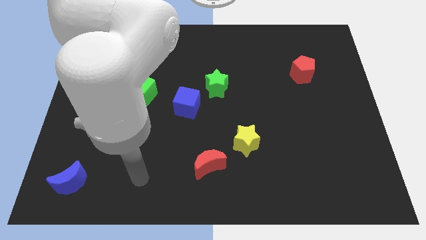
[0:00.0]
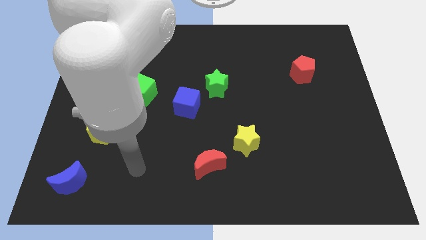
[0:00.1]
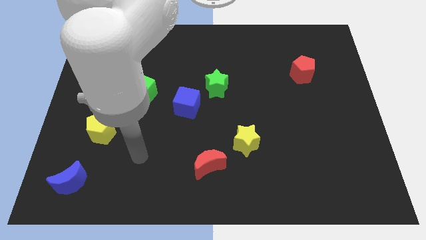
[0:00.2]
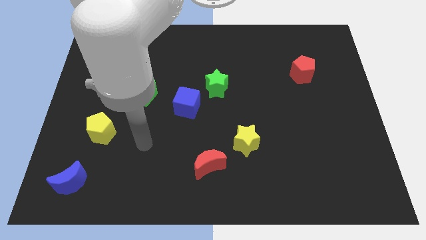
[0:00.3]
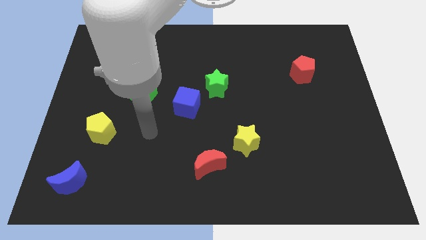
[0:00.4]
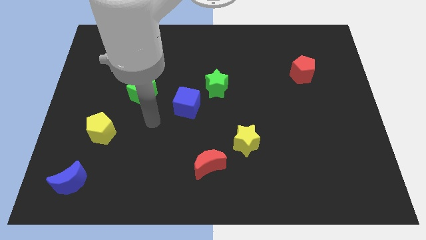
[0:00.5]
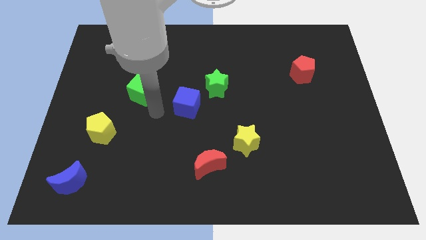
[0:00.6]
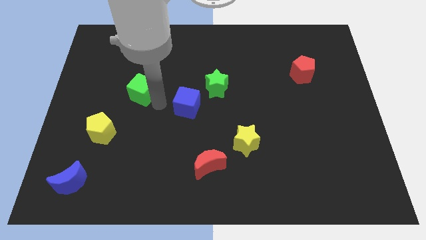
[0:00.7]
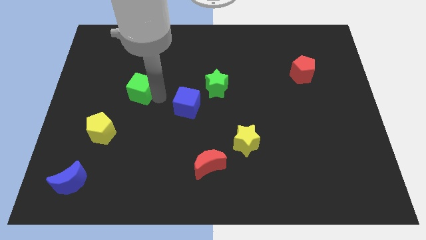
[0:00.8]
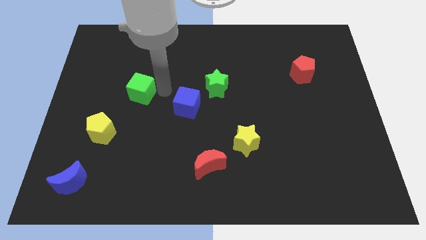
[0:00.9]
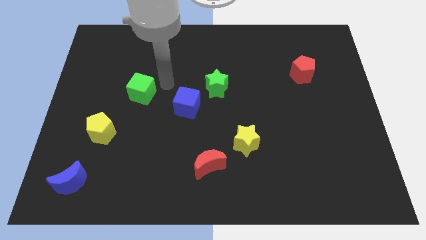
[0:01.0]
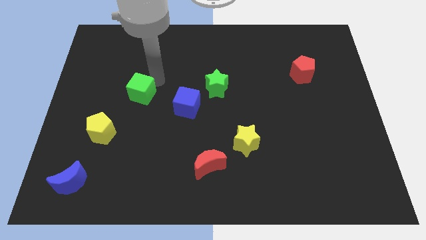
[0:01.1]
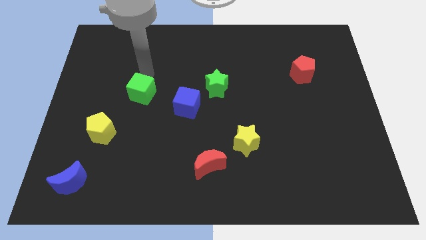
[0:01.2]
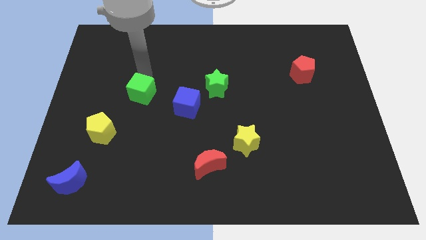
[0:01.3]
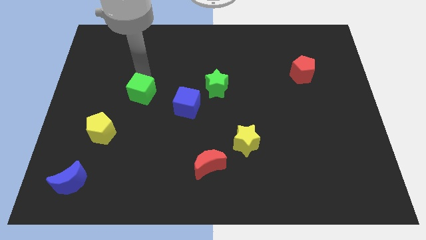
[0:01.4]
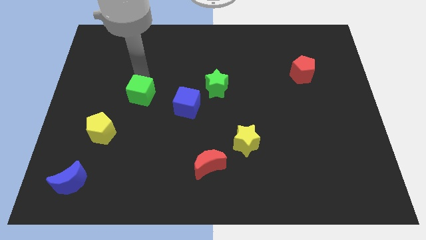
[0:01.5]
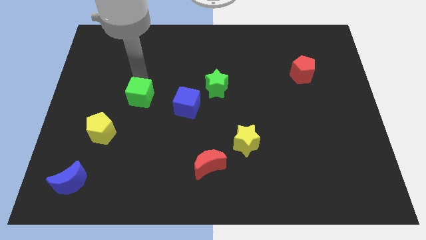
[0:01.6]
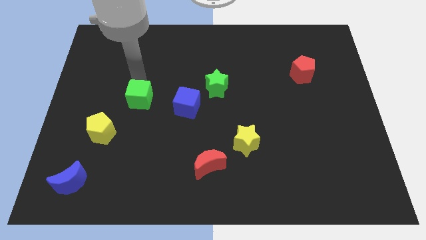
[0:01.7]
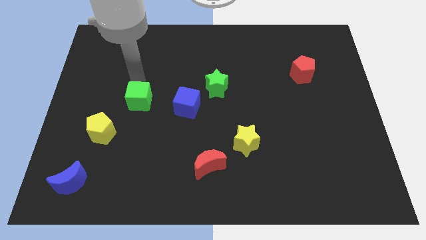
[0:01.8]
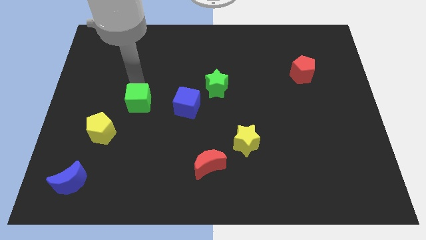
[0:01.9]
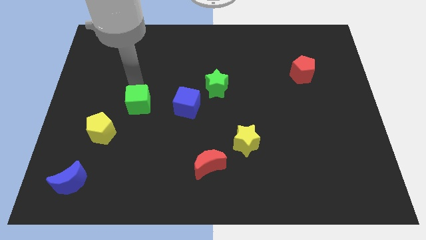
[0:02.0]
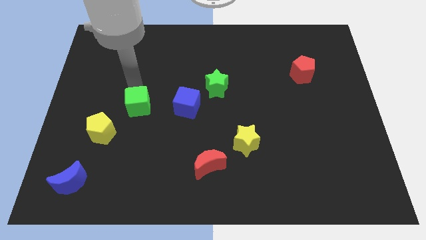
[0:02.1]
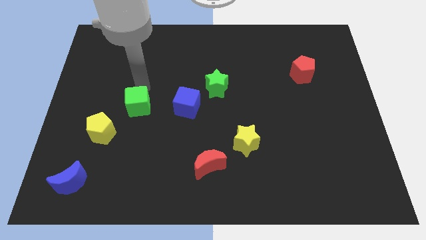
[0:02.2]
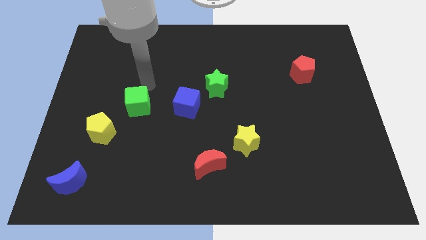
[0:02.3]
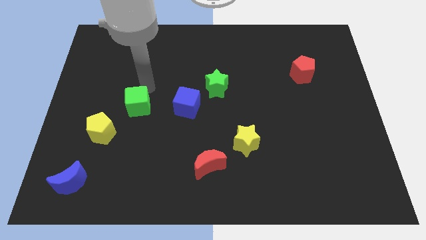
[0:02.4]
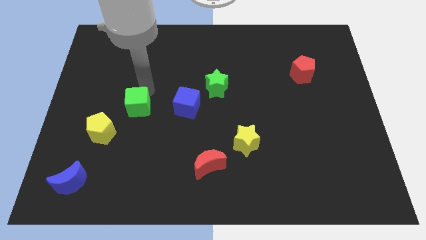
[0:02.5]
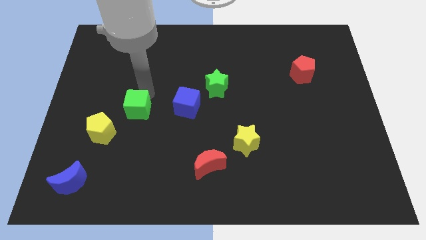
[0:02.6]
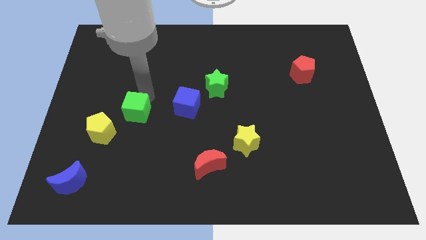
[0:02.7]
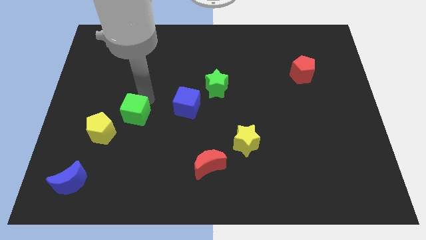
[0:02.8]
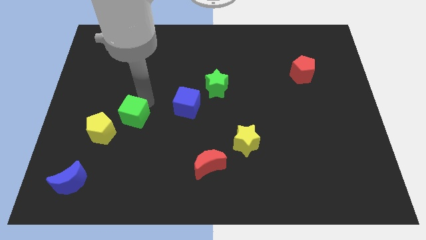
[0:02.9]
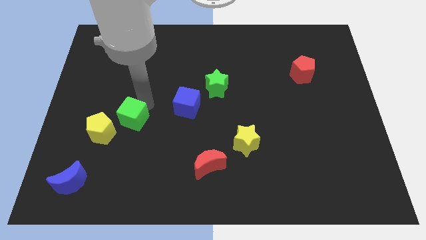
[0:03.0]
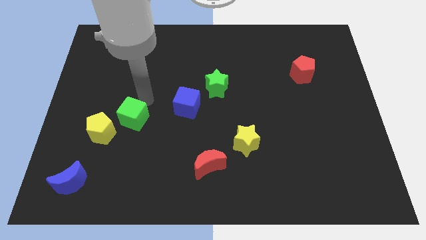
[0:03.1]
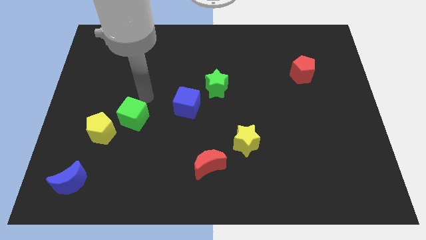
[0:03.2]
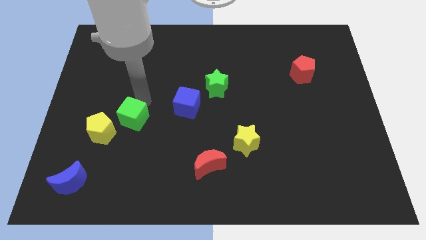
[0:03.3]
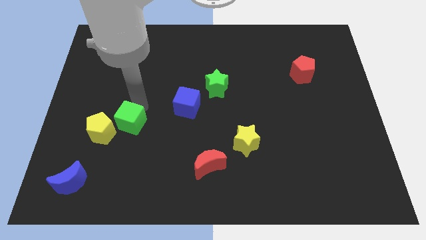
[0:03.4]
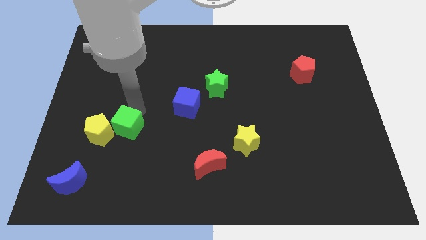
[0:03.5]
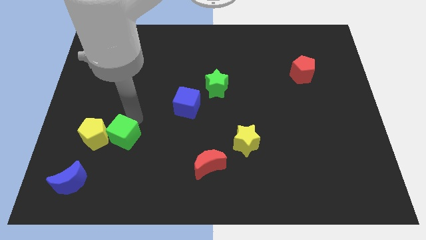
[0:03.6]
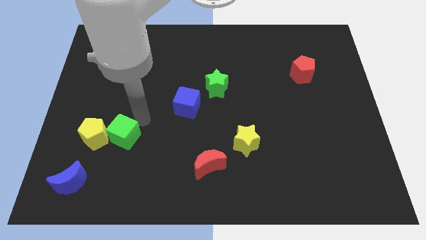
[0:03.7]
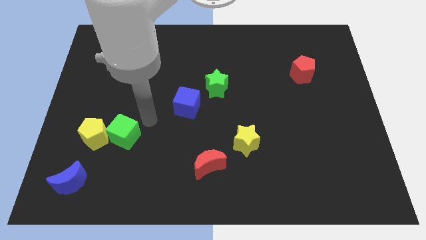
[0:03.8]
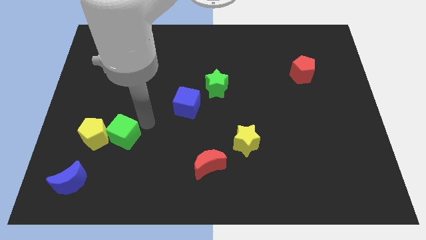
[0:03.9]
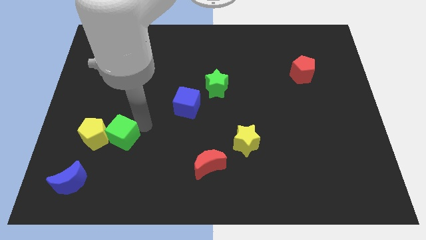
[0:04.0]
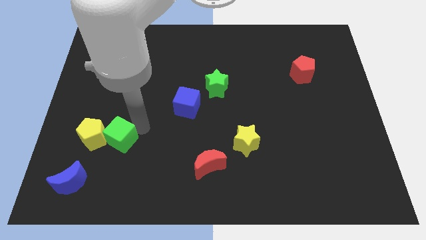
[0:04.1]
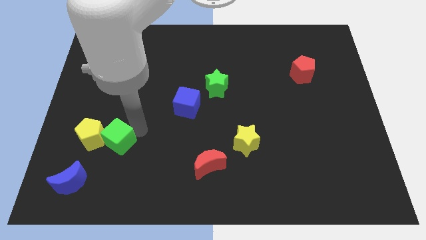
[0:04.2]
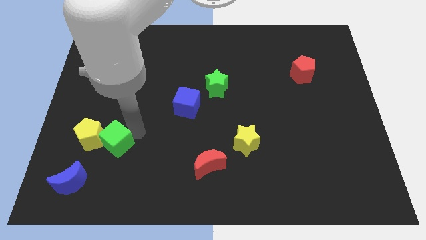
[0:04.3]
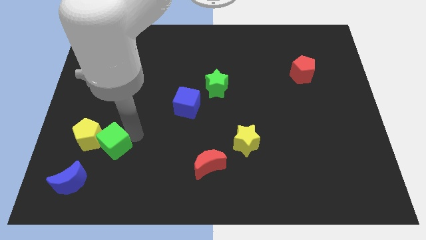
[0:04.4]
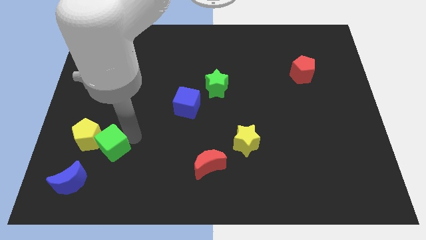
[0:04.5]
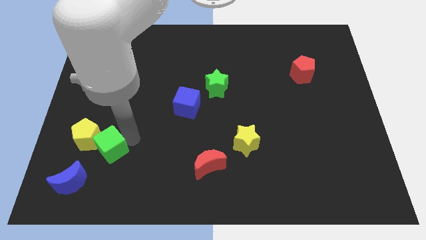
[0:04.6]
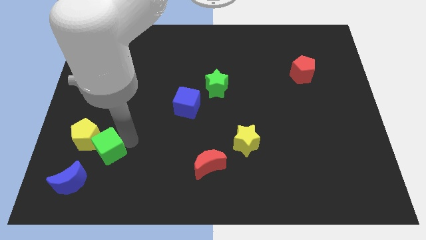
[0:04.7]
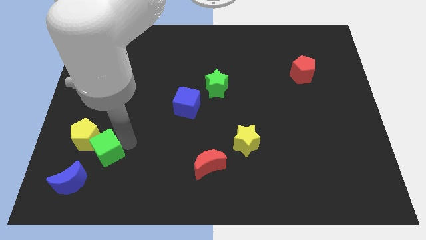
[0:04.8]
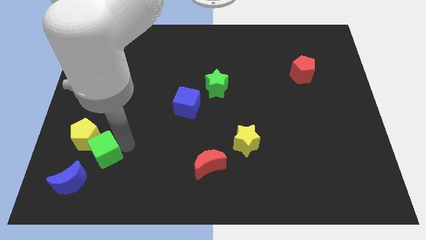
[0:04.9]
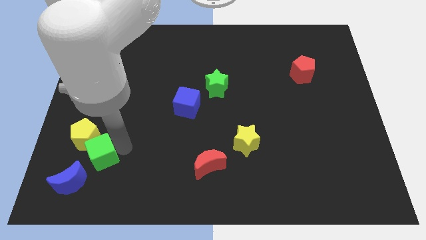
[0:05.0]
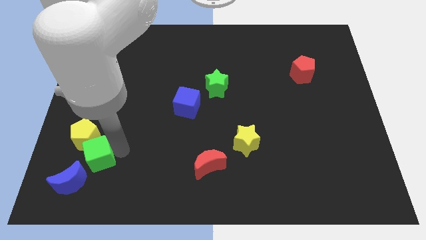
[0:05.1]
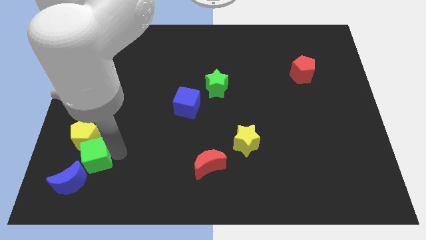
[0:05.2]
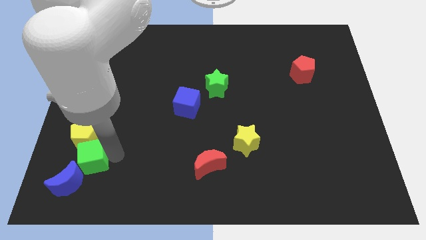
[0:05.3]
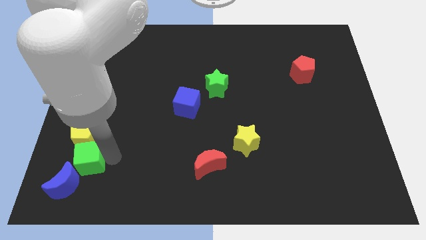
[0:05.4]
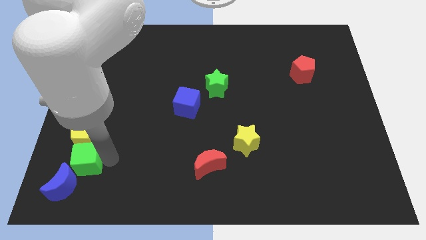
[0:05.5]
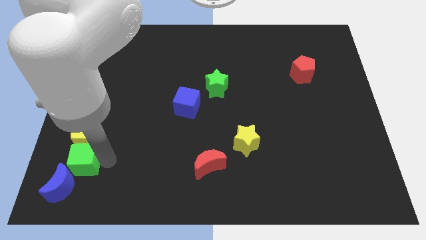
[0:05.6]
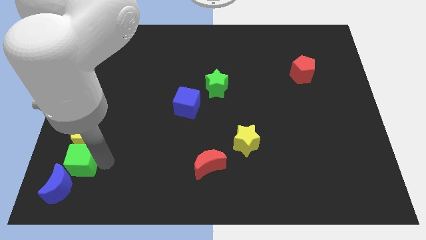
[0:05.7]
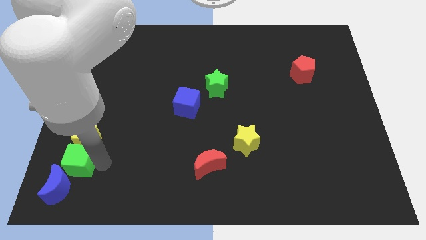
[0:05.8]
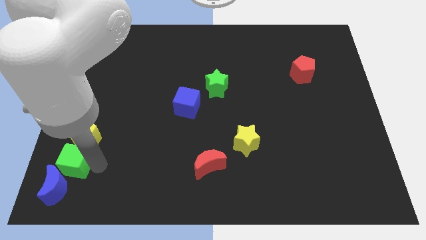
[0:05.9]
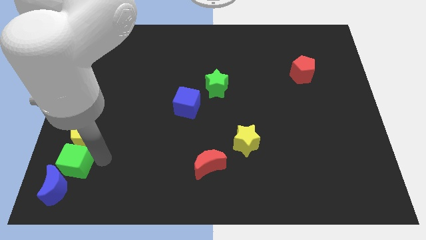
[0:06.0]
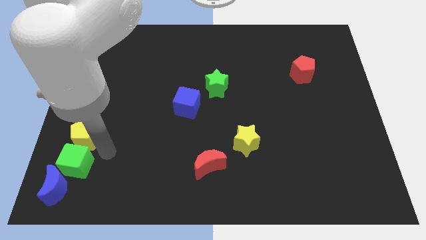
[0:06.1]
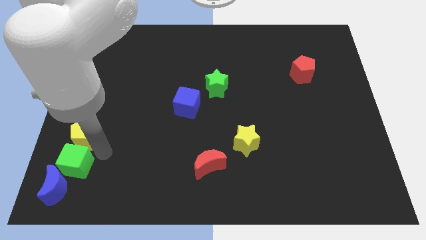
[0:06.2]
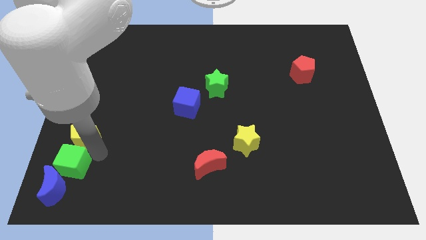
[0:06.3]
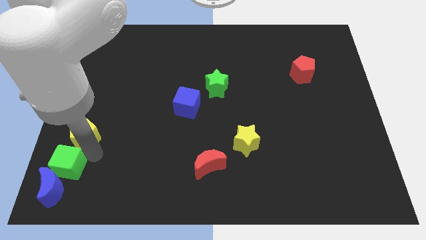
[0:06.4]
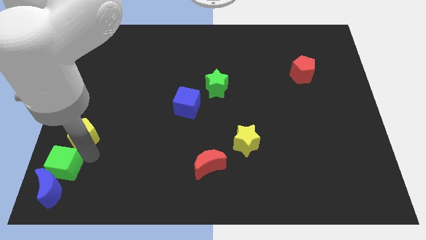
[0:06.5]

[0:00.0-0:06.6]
slide the green cube to the bottom left
